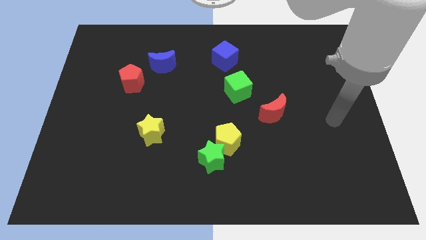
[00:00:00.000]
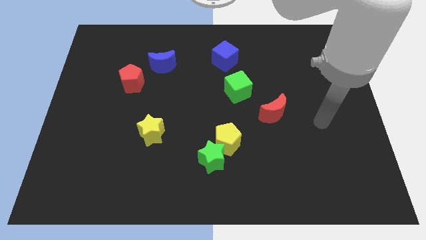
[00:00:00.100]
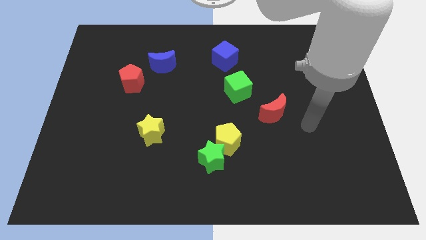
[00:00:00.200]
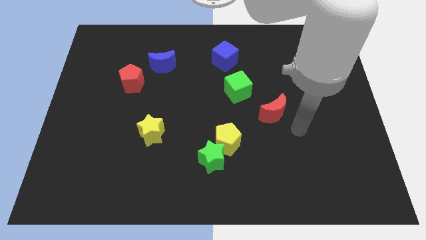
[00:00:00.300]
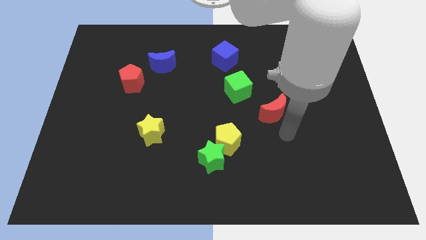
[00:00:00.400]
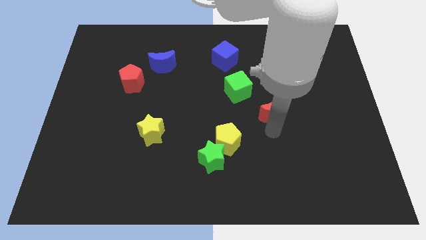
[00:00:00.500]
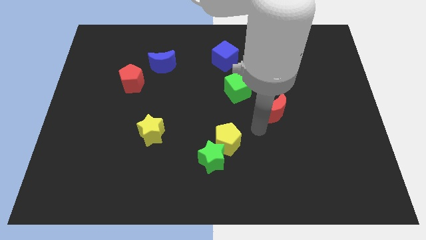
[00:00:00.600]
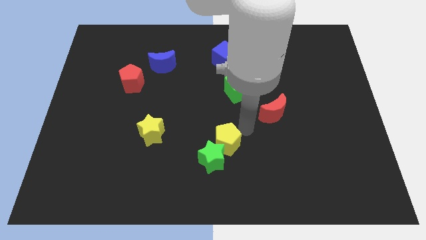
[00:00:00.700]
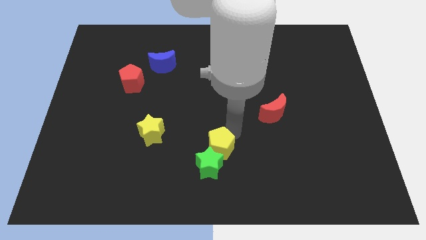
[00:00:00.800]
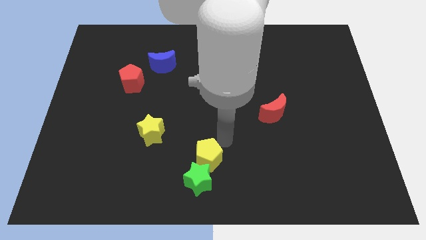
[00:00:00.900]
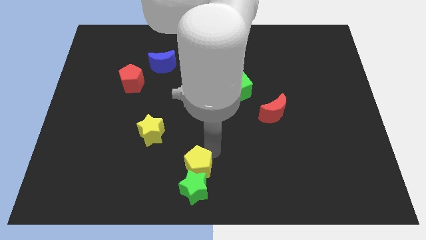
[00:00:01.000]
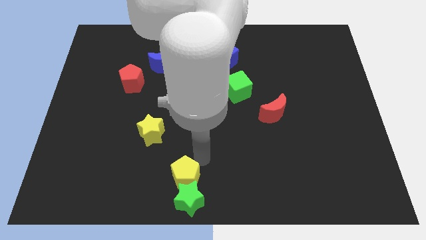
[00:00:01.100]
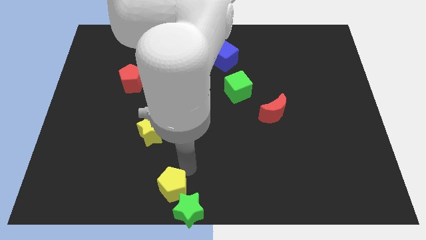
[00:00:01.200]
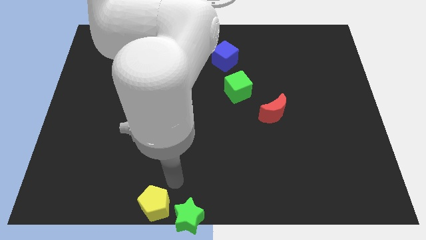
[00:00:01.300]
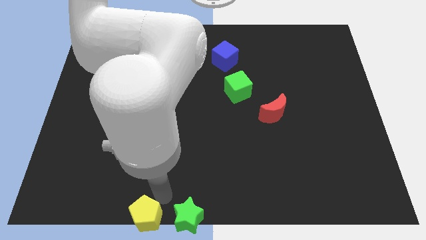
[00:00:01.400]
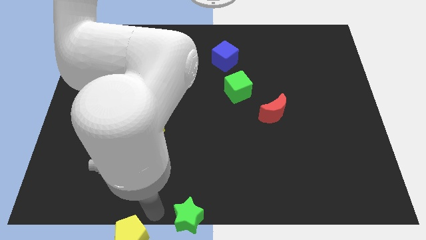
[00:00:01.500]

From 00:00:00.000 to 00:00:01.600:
separate the green star from the yellow pentagon

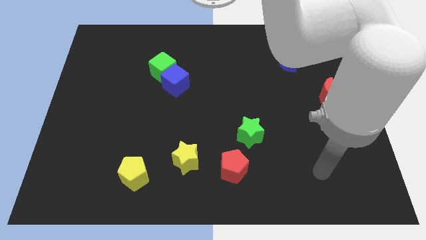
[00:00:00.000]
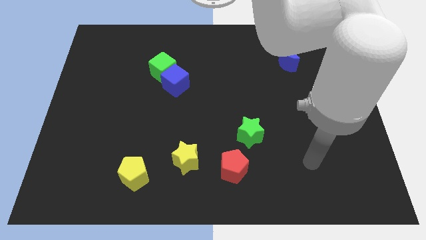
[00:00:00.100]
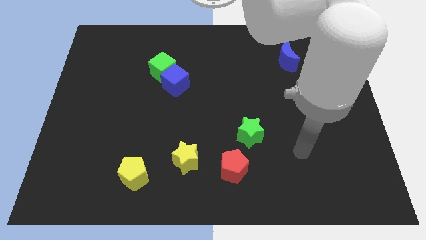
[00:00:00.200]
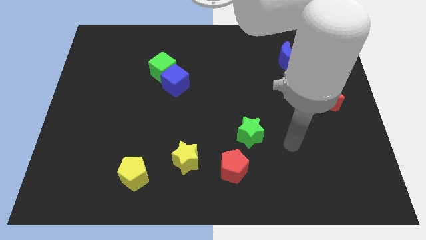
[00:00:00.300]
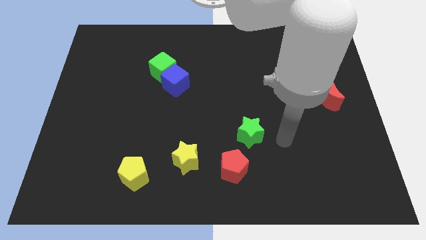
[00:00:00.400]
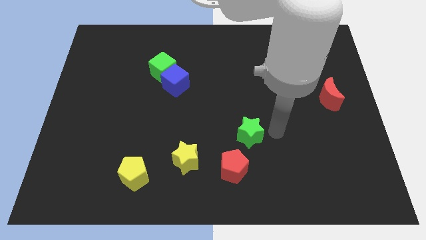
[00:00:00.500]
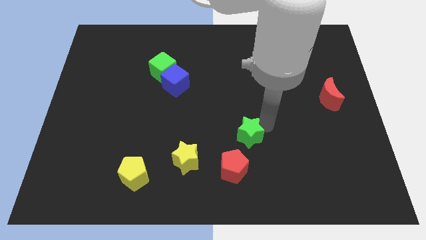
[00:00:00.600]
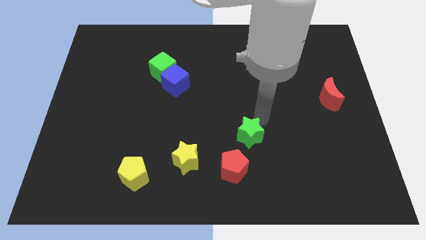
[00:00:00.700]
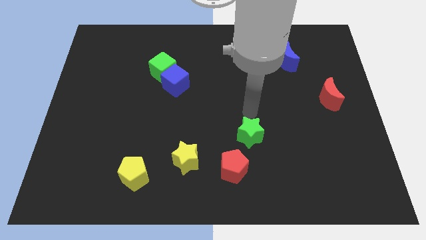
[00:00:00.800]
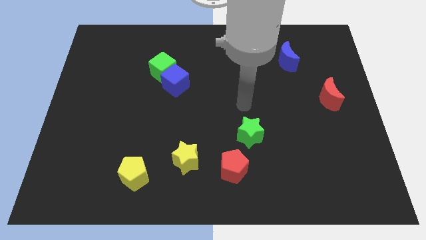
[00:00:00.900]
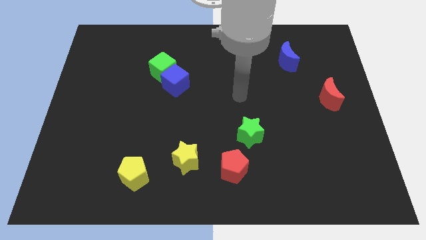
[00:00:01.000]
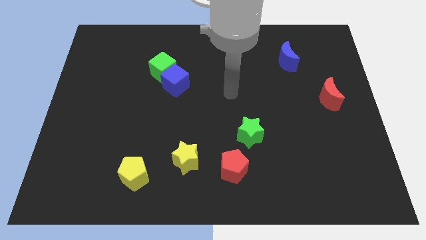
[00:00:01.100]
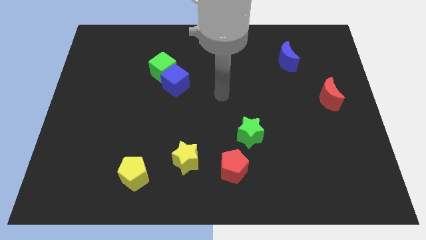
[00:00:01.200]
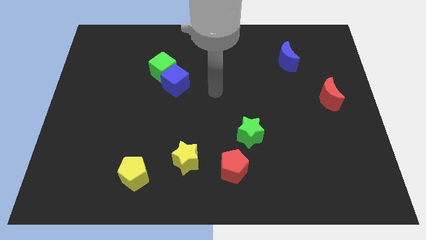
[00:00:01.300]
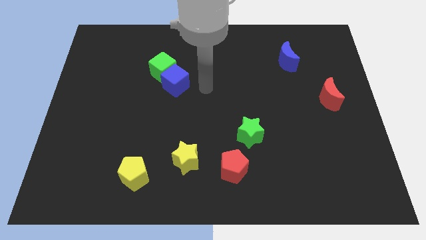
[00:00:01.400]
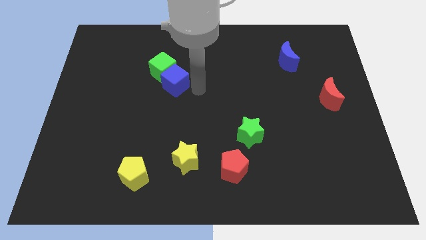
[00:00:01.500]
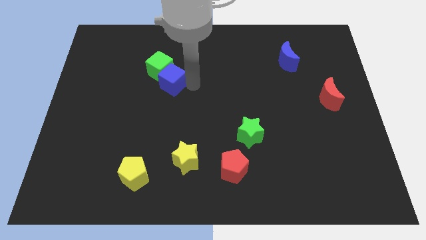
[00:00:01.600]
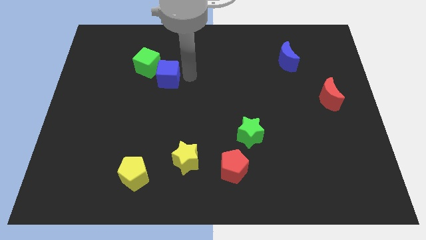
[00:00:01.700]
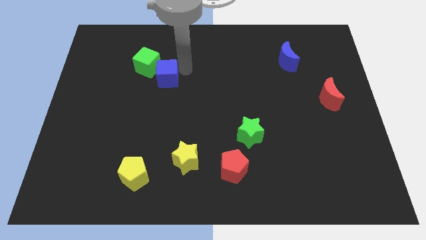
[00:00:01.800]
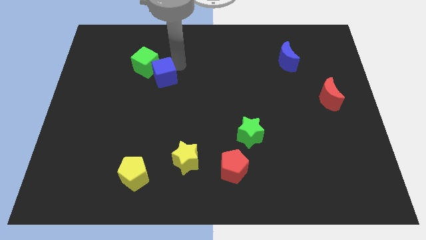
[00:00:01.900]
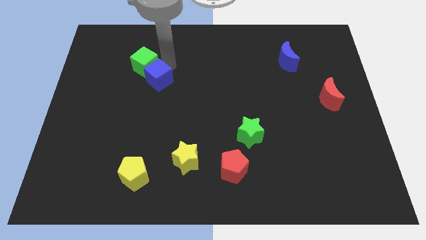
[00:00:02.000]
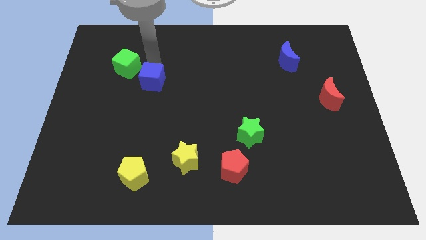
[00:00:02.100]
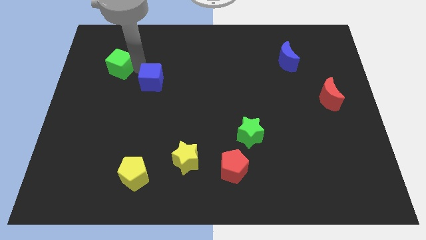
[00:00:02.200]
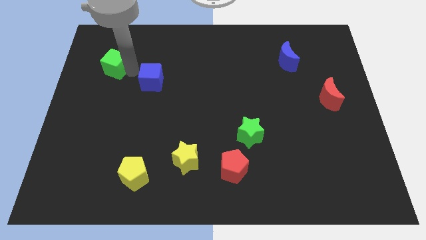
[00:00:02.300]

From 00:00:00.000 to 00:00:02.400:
separate the blue cube from the green cube

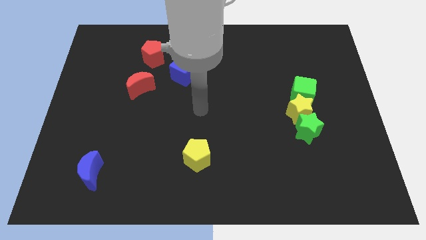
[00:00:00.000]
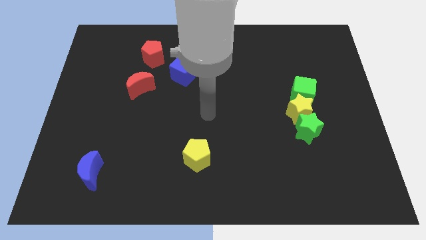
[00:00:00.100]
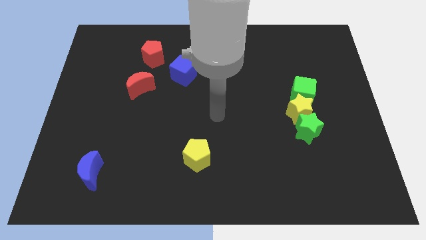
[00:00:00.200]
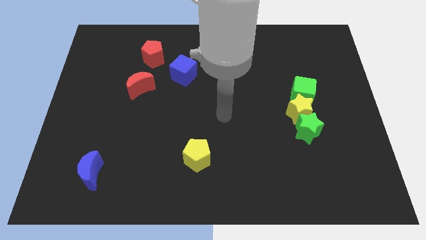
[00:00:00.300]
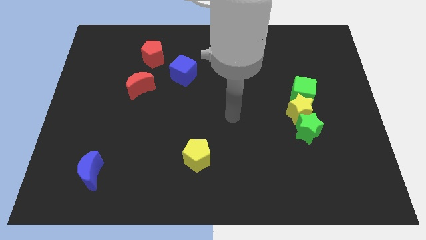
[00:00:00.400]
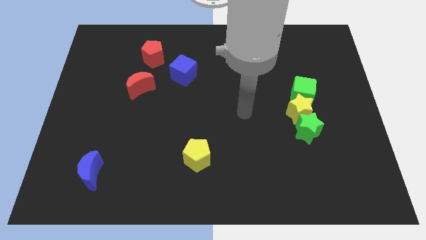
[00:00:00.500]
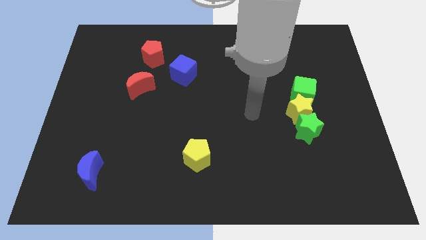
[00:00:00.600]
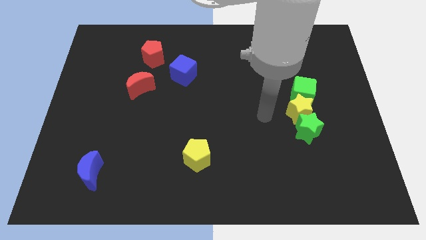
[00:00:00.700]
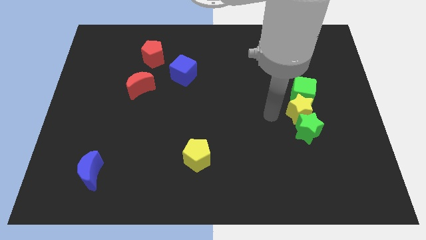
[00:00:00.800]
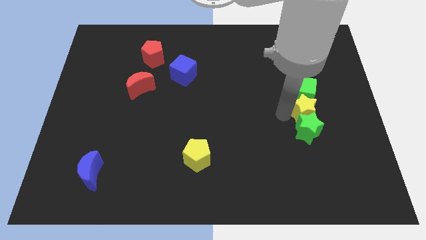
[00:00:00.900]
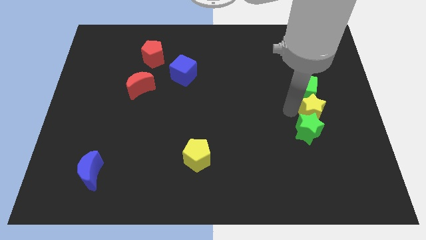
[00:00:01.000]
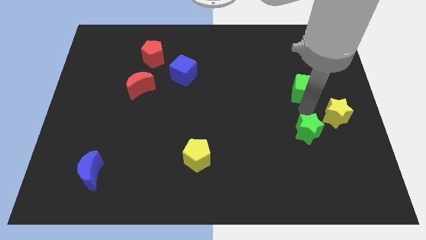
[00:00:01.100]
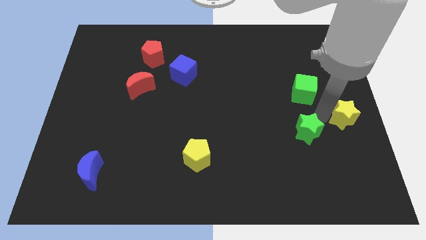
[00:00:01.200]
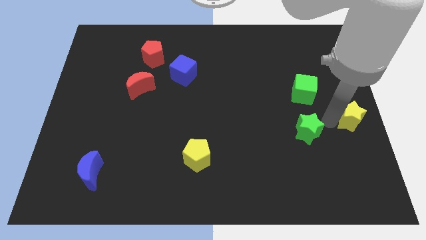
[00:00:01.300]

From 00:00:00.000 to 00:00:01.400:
separate the green star from the yellow star

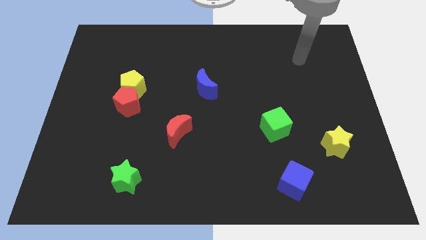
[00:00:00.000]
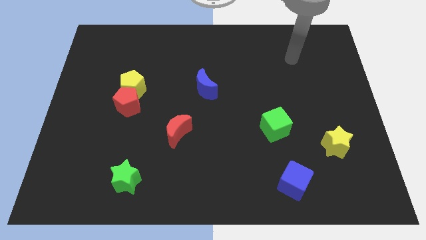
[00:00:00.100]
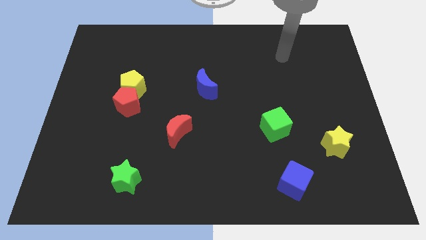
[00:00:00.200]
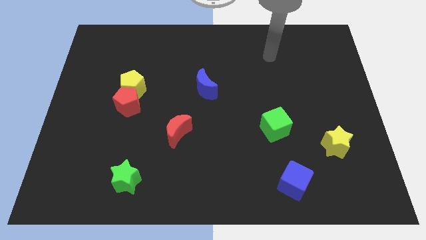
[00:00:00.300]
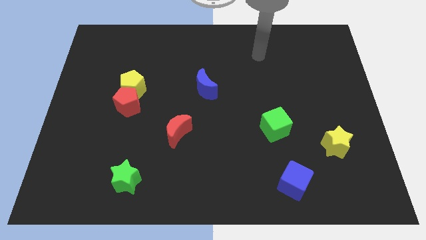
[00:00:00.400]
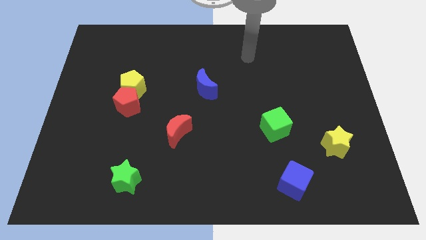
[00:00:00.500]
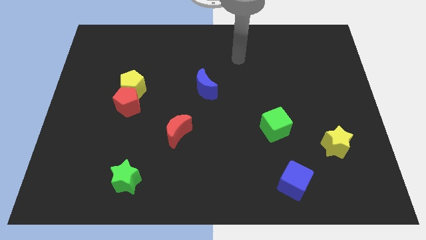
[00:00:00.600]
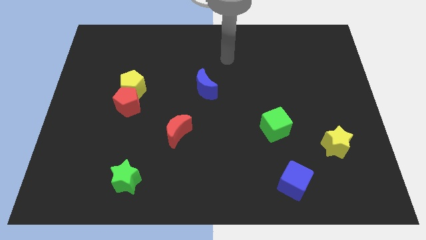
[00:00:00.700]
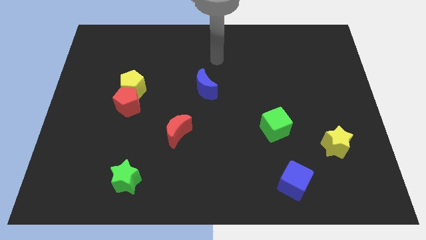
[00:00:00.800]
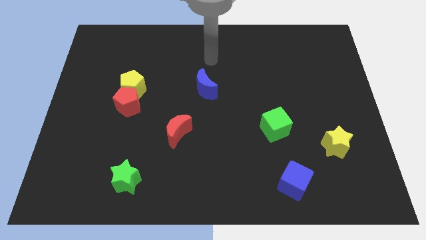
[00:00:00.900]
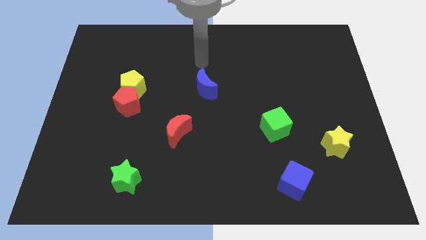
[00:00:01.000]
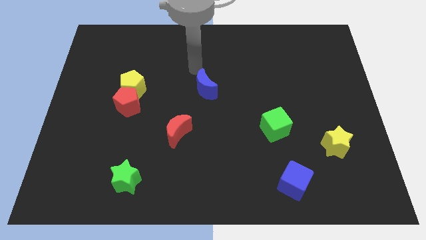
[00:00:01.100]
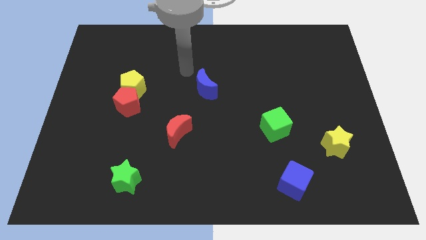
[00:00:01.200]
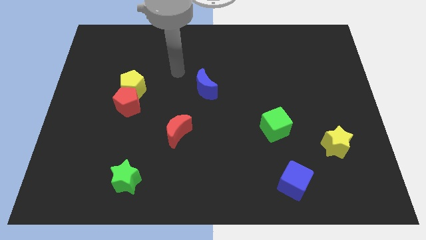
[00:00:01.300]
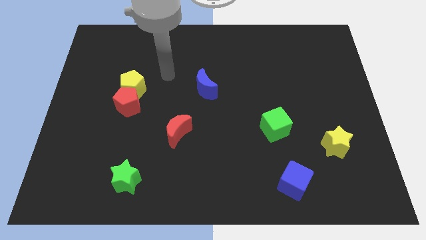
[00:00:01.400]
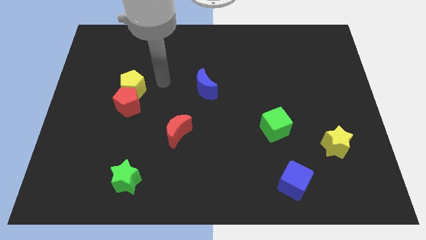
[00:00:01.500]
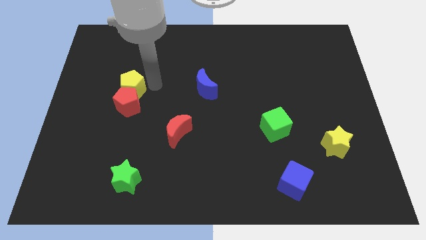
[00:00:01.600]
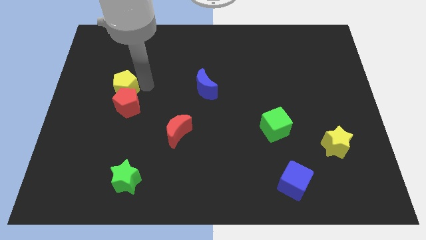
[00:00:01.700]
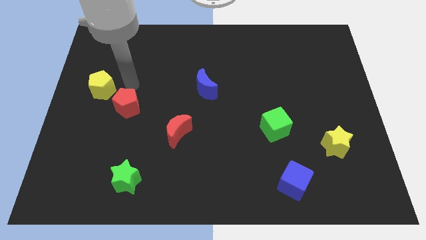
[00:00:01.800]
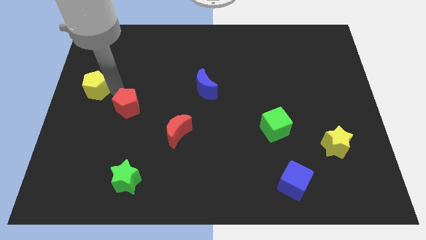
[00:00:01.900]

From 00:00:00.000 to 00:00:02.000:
move the red pentagon away from the yellow pentagon

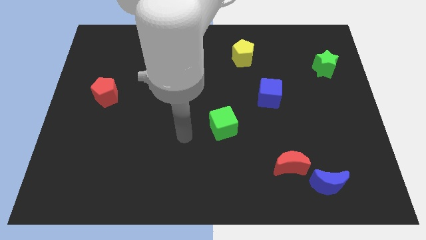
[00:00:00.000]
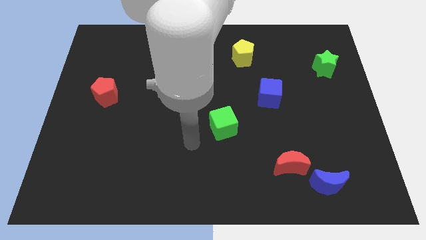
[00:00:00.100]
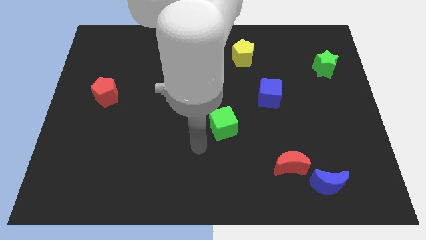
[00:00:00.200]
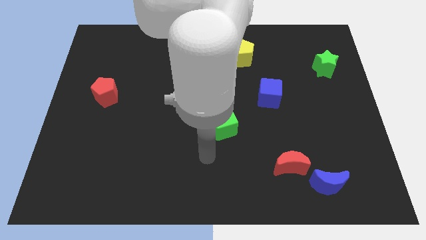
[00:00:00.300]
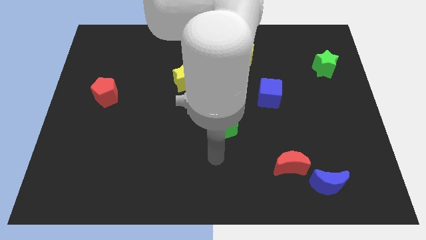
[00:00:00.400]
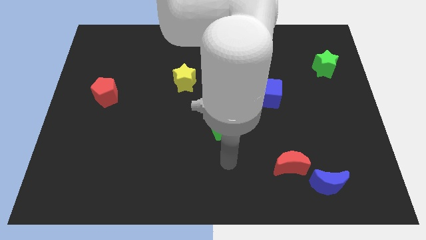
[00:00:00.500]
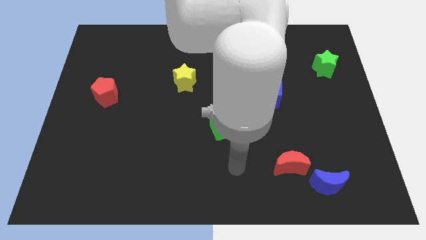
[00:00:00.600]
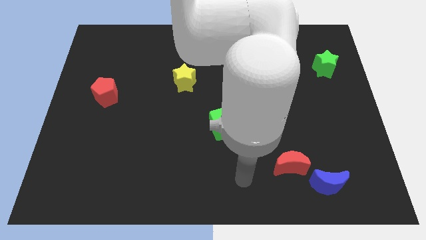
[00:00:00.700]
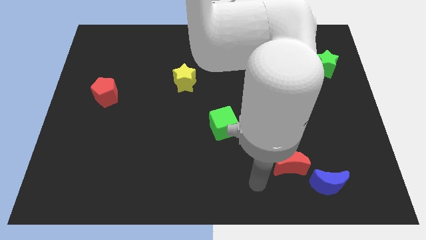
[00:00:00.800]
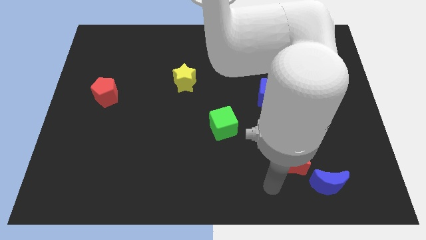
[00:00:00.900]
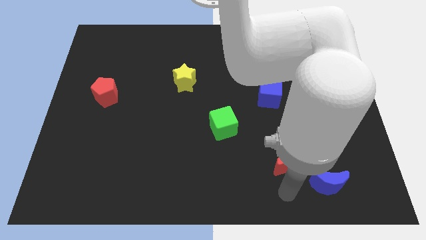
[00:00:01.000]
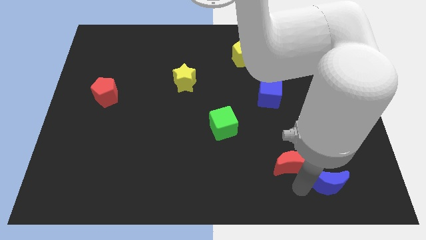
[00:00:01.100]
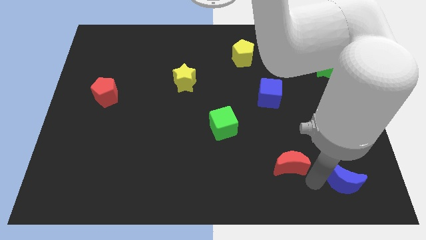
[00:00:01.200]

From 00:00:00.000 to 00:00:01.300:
separate the red moon from the blue moon

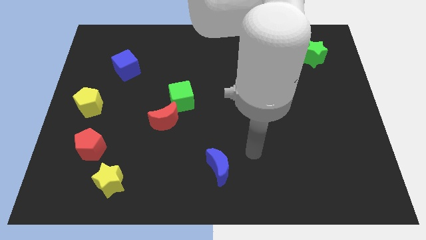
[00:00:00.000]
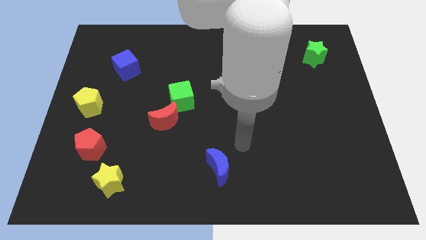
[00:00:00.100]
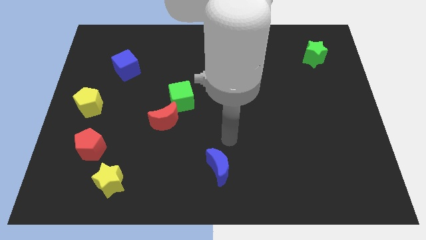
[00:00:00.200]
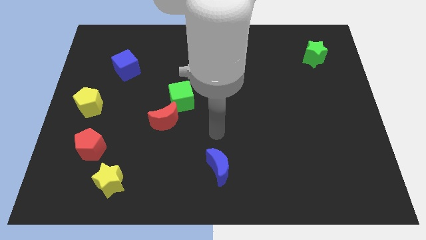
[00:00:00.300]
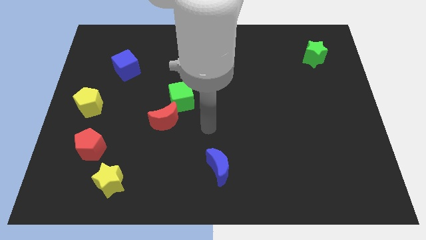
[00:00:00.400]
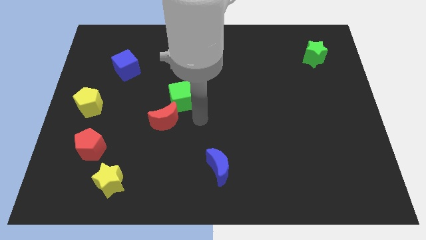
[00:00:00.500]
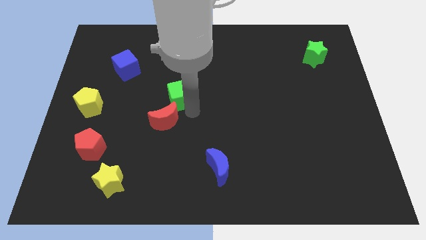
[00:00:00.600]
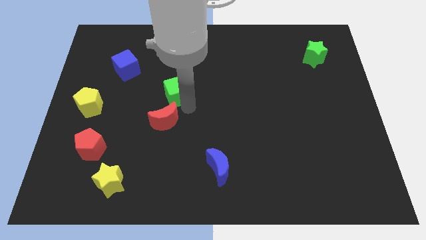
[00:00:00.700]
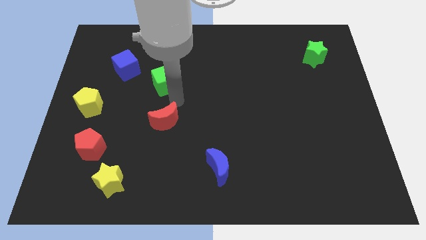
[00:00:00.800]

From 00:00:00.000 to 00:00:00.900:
move the red moon away from the green cube
